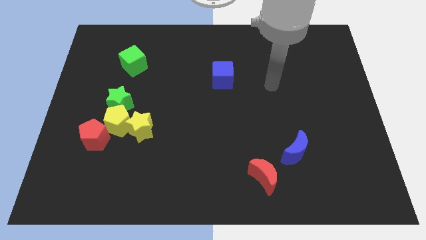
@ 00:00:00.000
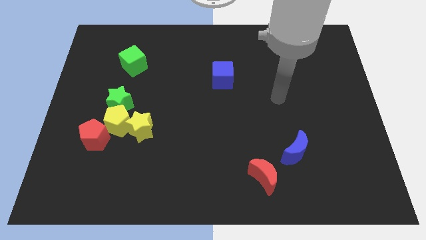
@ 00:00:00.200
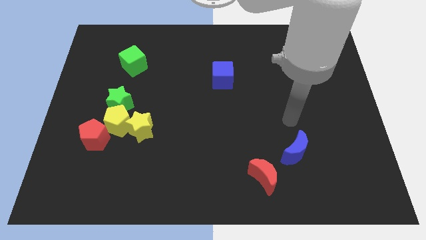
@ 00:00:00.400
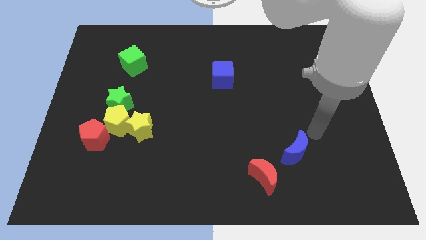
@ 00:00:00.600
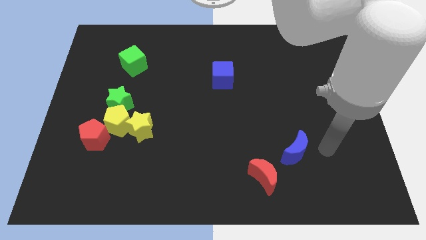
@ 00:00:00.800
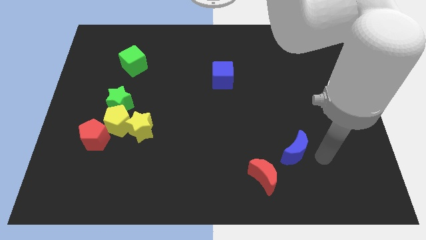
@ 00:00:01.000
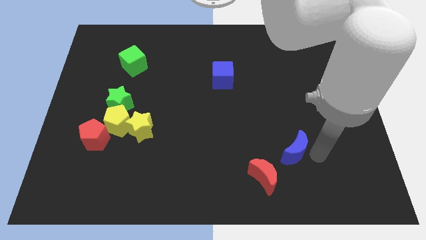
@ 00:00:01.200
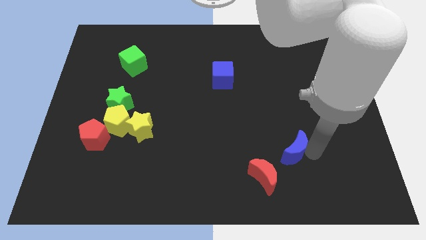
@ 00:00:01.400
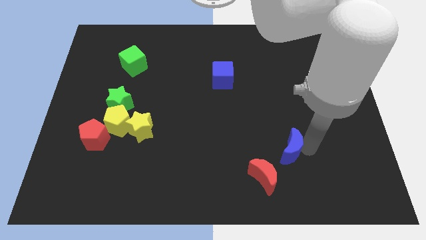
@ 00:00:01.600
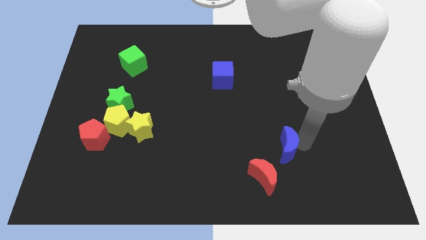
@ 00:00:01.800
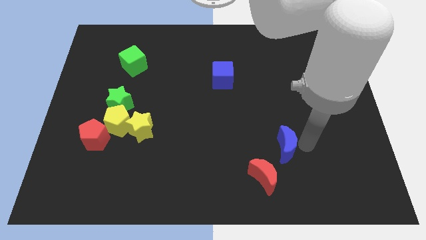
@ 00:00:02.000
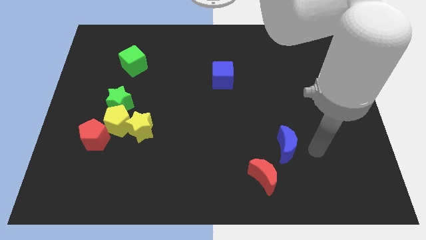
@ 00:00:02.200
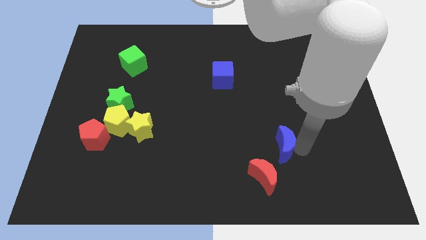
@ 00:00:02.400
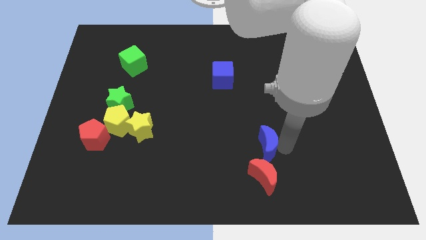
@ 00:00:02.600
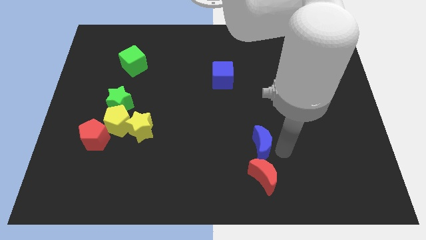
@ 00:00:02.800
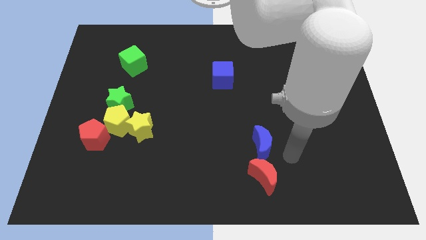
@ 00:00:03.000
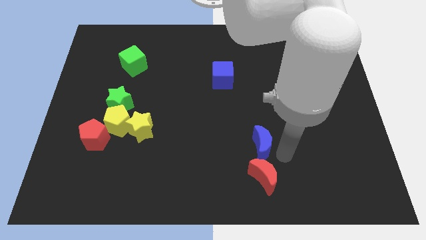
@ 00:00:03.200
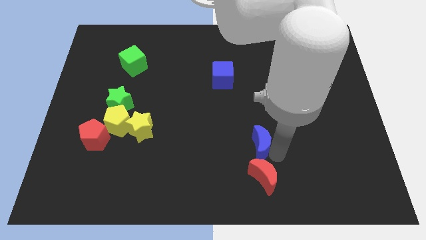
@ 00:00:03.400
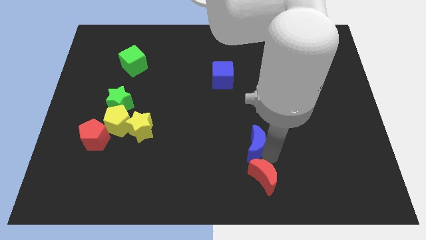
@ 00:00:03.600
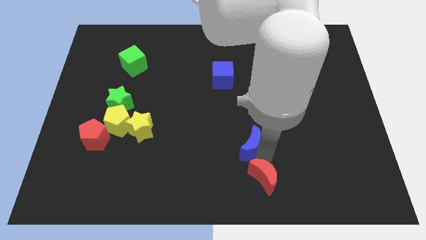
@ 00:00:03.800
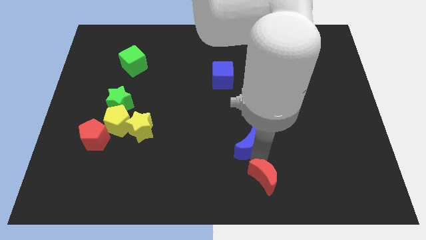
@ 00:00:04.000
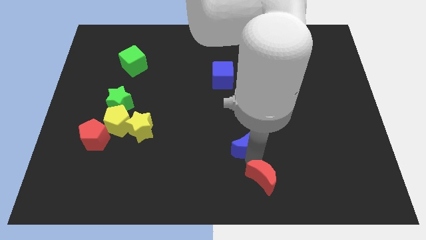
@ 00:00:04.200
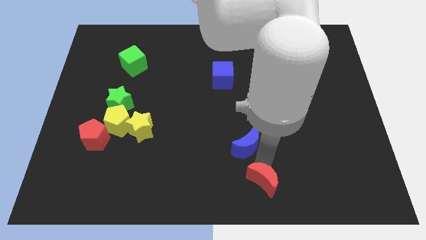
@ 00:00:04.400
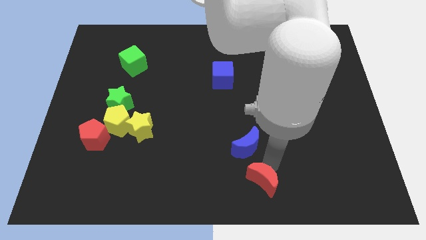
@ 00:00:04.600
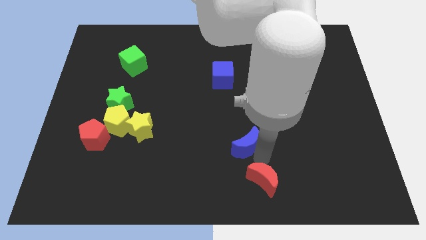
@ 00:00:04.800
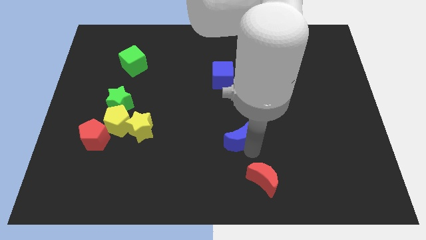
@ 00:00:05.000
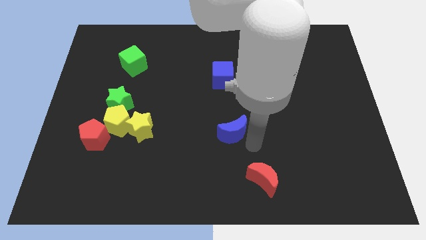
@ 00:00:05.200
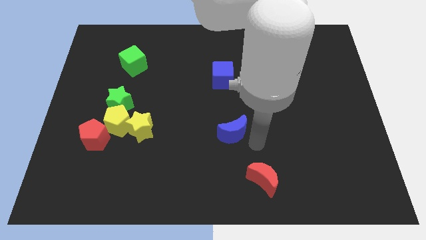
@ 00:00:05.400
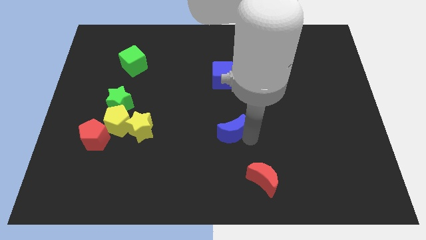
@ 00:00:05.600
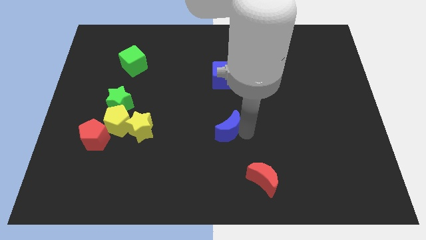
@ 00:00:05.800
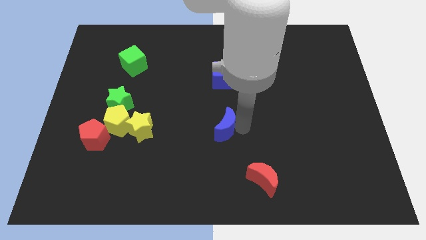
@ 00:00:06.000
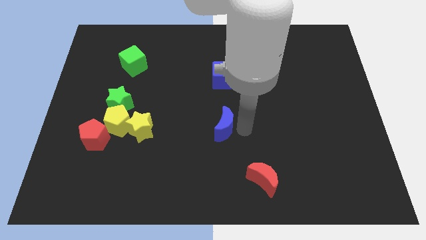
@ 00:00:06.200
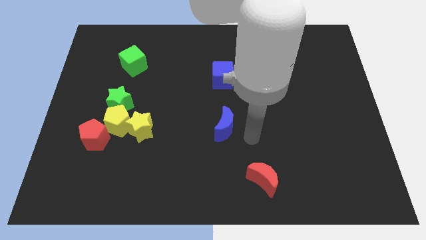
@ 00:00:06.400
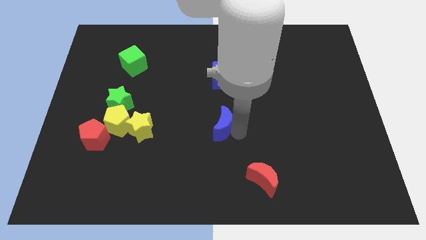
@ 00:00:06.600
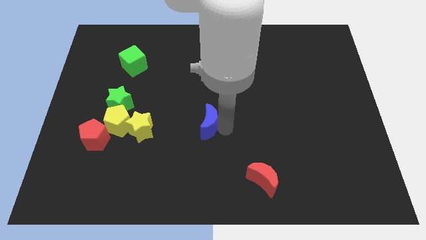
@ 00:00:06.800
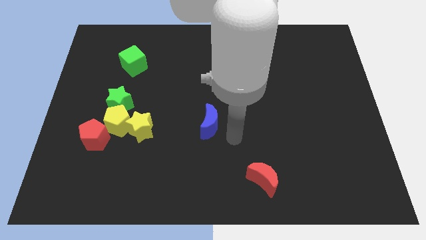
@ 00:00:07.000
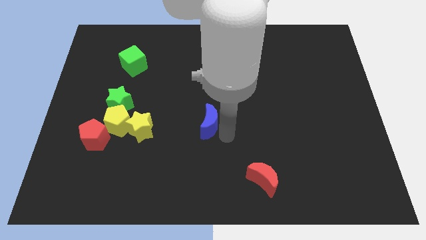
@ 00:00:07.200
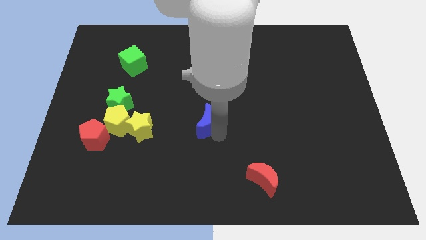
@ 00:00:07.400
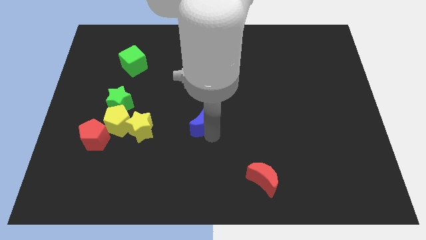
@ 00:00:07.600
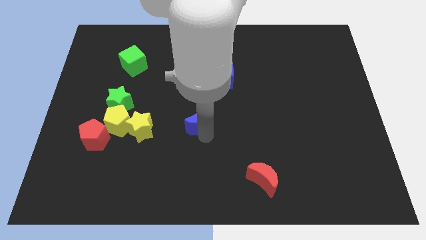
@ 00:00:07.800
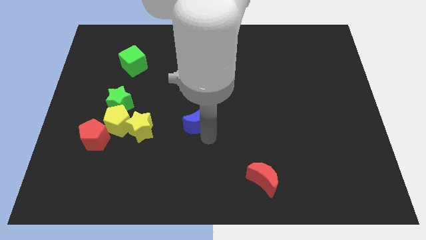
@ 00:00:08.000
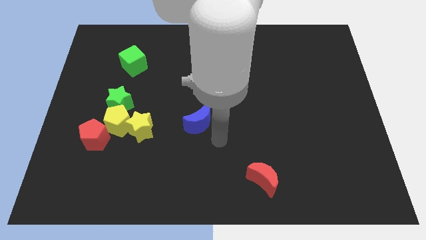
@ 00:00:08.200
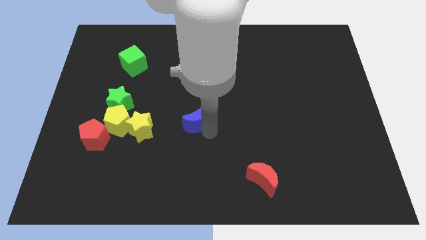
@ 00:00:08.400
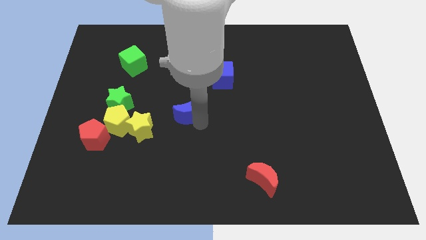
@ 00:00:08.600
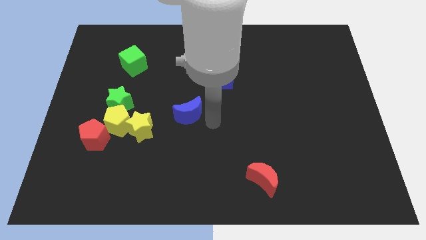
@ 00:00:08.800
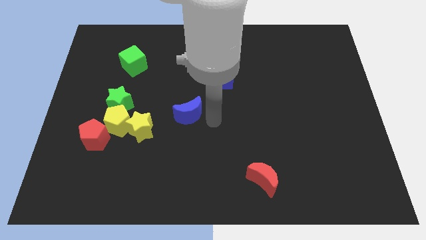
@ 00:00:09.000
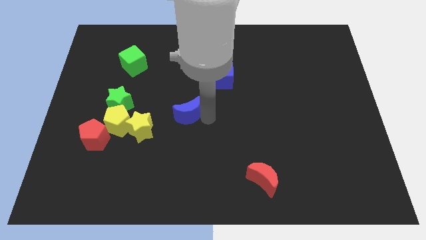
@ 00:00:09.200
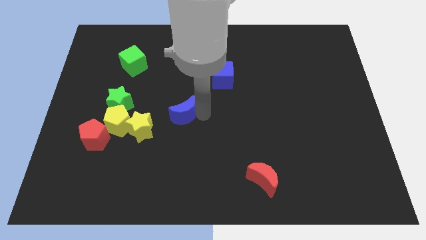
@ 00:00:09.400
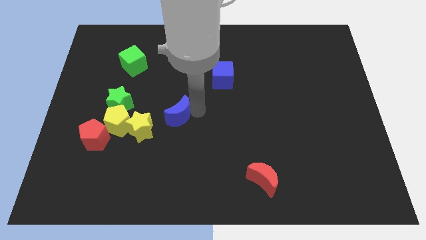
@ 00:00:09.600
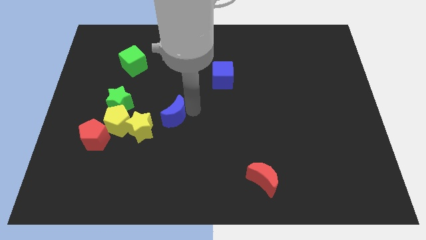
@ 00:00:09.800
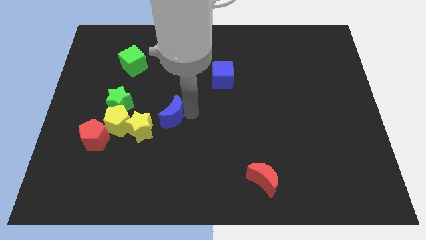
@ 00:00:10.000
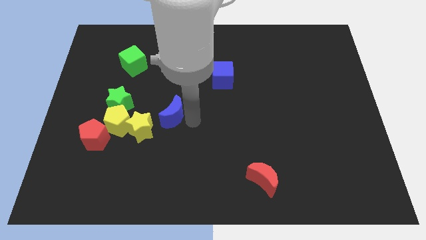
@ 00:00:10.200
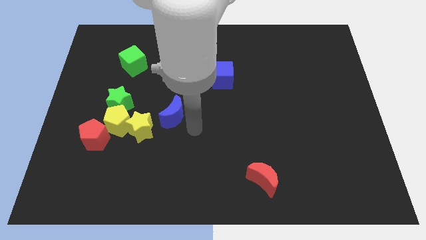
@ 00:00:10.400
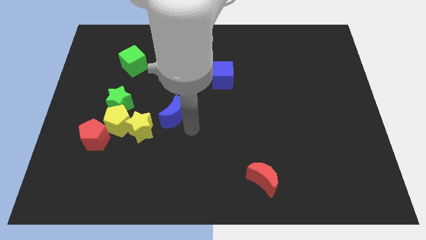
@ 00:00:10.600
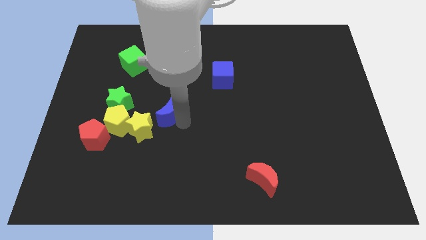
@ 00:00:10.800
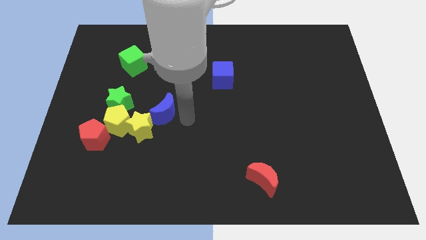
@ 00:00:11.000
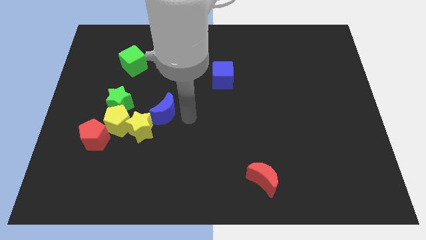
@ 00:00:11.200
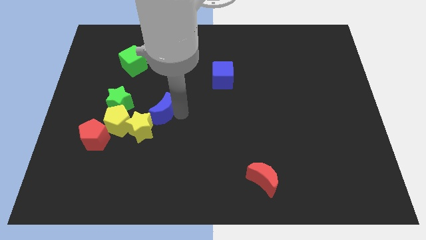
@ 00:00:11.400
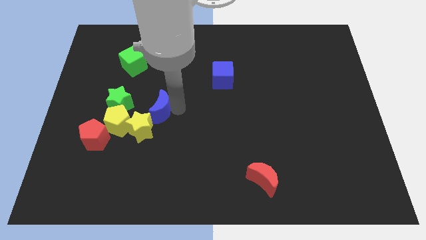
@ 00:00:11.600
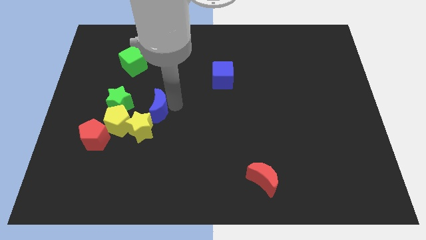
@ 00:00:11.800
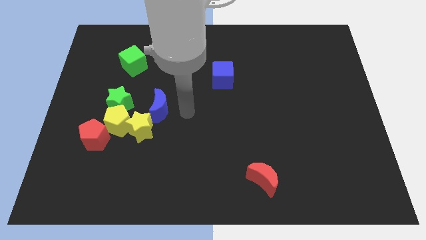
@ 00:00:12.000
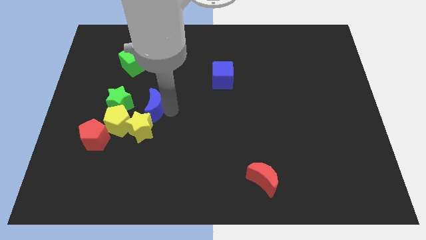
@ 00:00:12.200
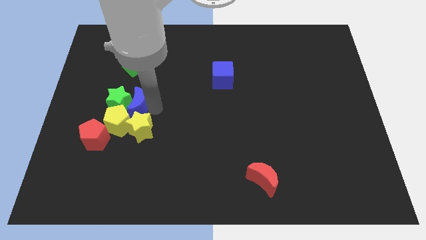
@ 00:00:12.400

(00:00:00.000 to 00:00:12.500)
move the blue moon to the green star

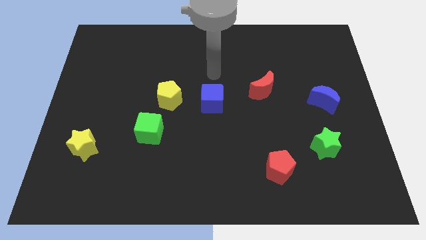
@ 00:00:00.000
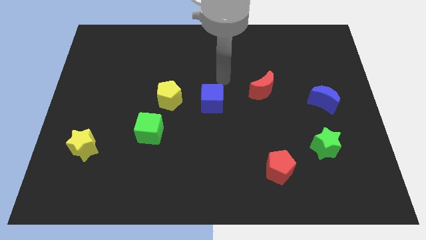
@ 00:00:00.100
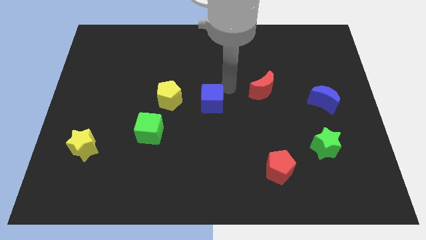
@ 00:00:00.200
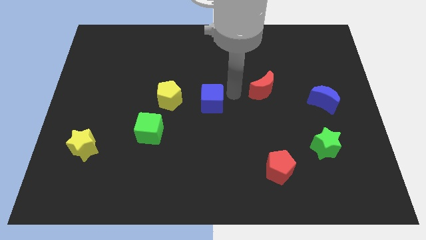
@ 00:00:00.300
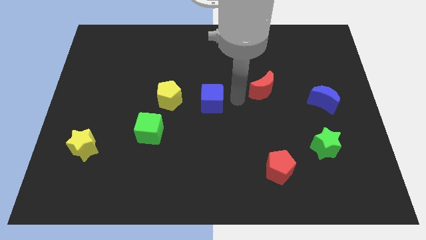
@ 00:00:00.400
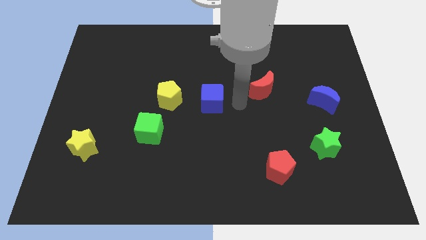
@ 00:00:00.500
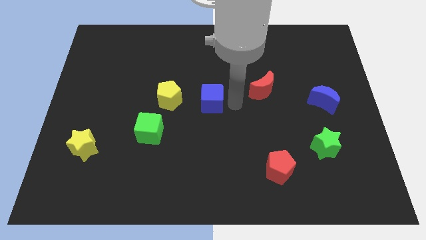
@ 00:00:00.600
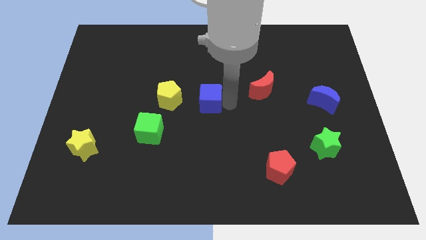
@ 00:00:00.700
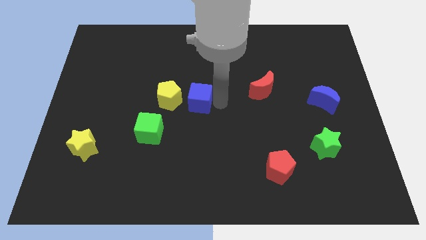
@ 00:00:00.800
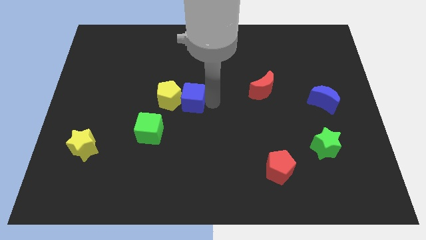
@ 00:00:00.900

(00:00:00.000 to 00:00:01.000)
move the blue cube next to the yellow pentagon
